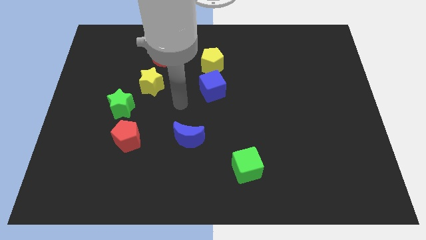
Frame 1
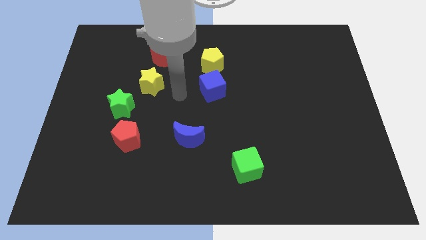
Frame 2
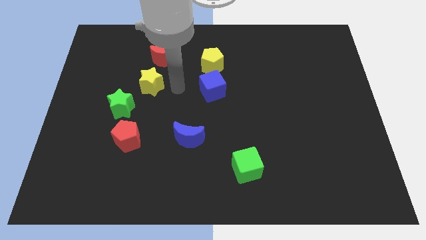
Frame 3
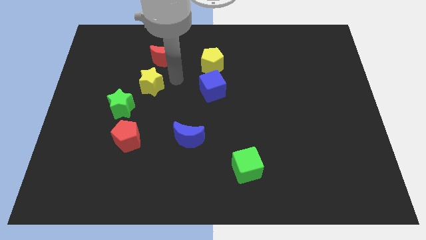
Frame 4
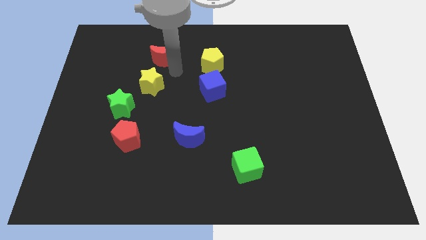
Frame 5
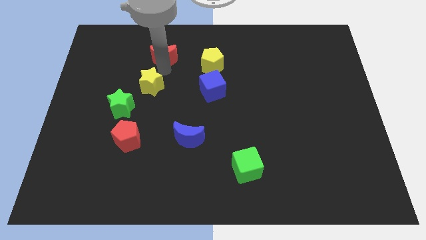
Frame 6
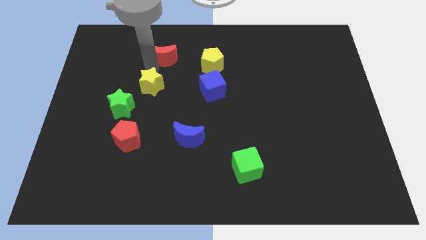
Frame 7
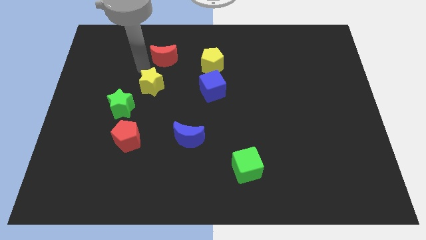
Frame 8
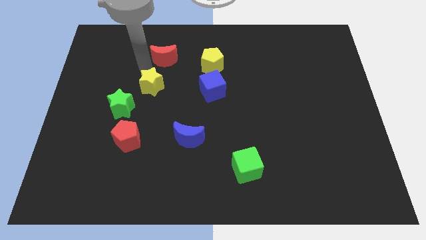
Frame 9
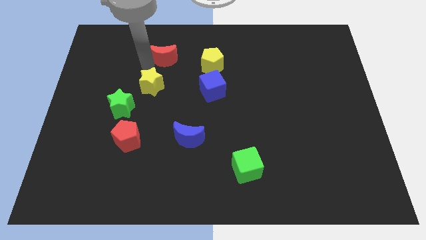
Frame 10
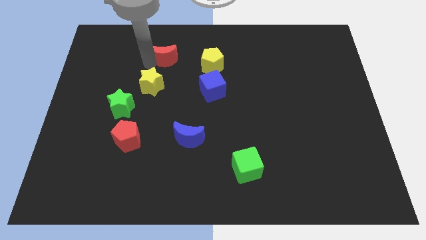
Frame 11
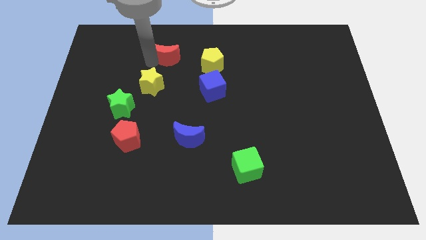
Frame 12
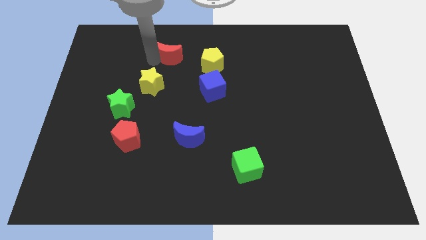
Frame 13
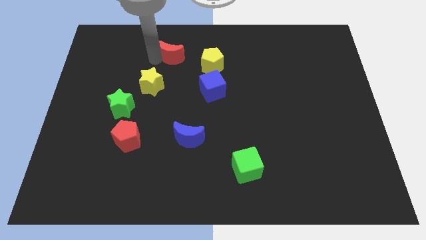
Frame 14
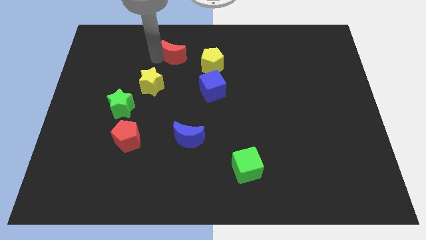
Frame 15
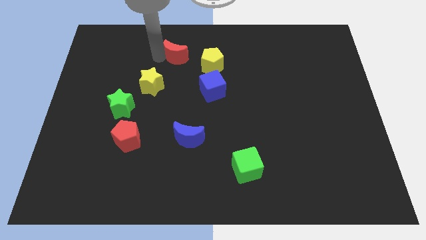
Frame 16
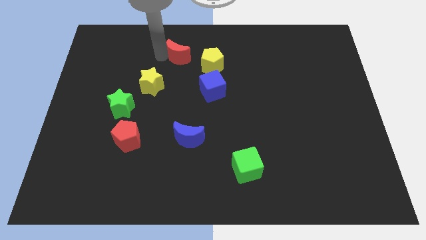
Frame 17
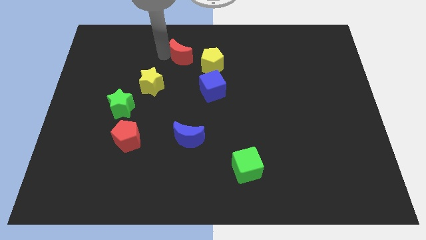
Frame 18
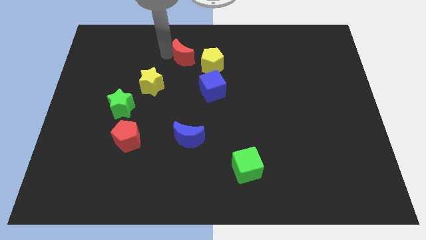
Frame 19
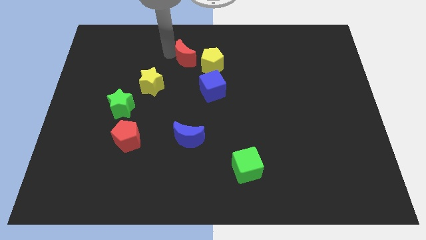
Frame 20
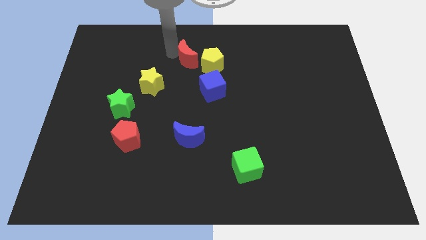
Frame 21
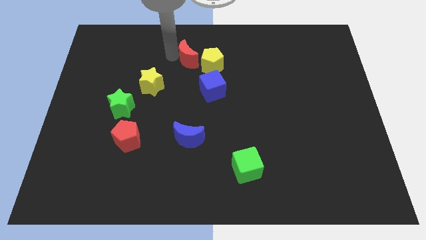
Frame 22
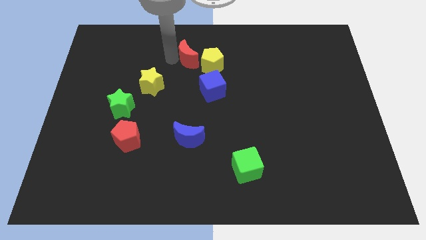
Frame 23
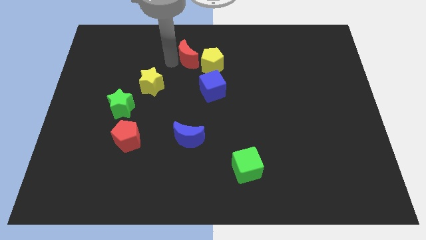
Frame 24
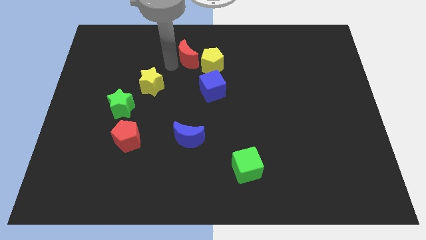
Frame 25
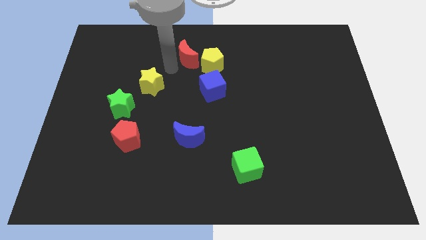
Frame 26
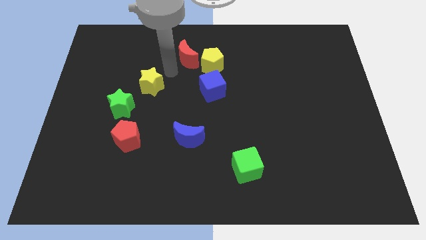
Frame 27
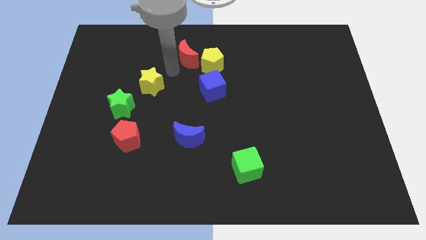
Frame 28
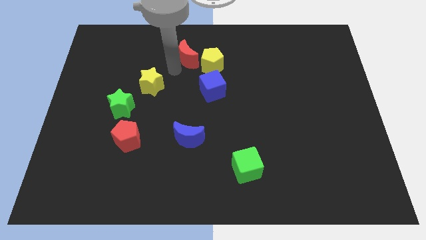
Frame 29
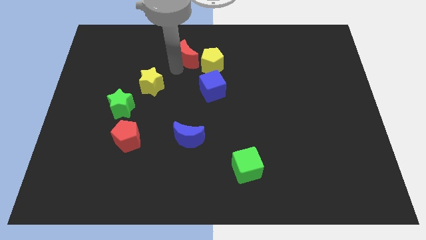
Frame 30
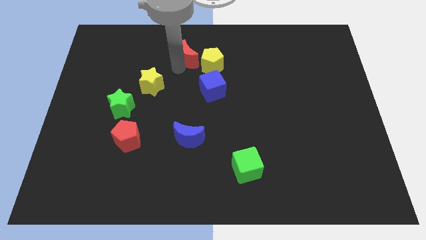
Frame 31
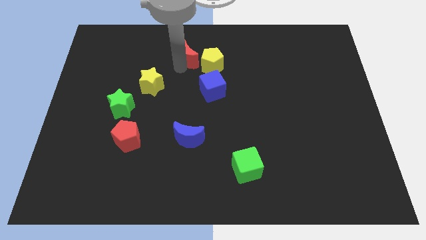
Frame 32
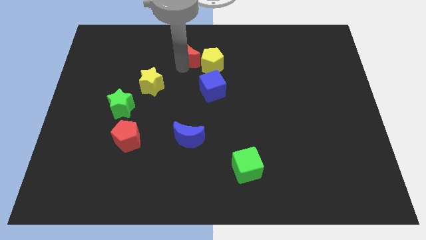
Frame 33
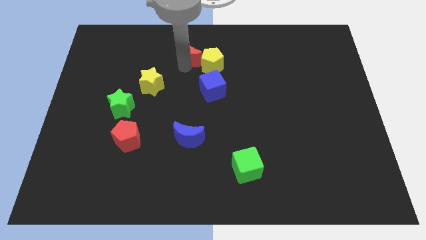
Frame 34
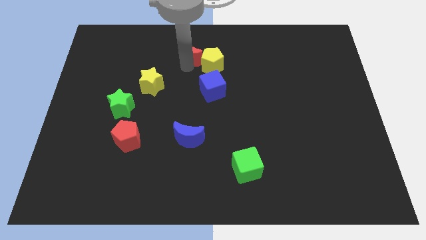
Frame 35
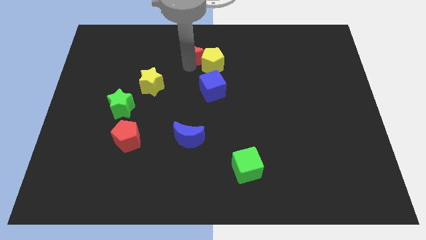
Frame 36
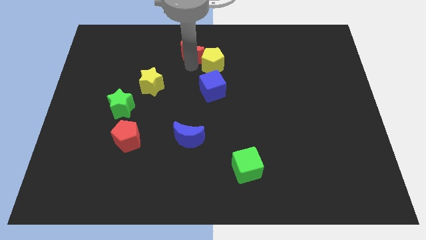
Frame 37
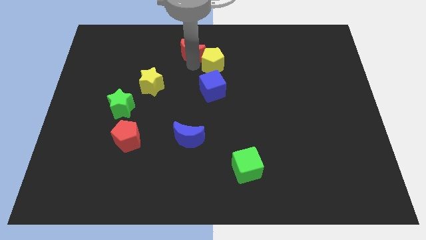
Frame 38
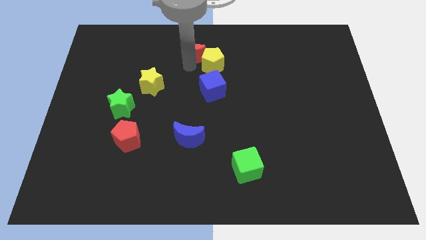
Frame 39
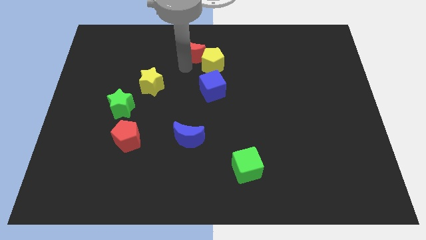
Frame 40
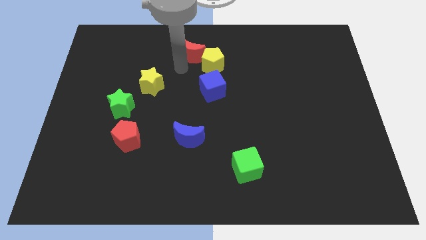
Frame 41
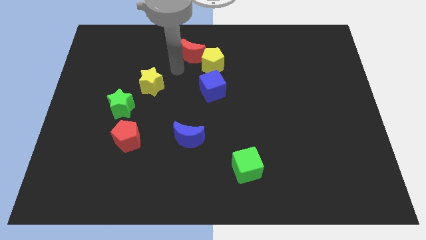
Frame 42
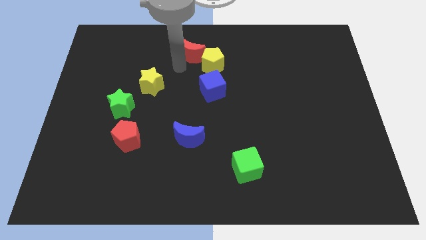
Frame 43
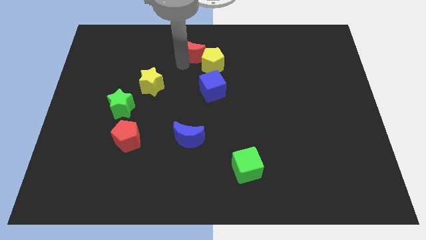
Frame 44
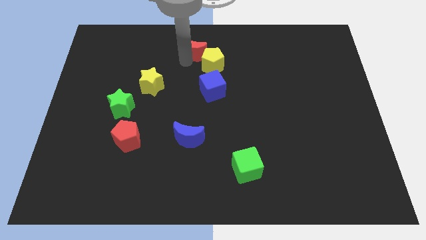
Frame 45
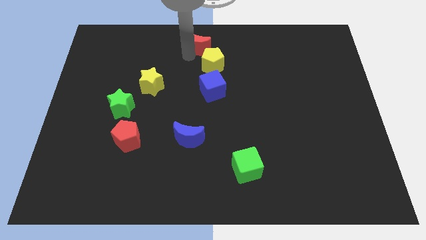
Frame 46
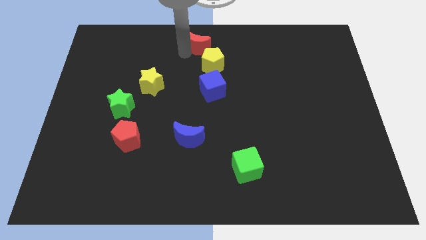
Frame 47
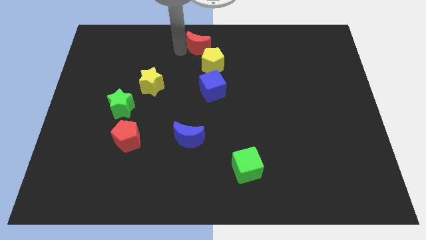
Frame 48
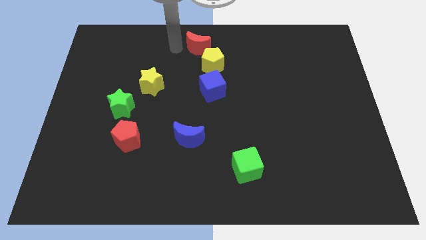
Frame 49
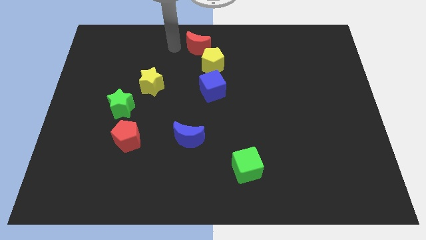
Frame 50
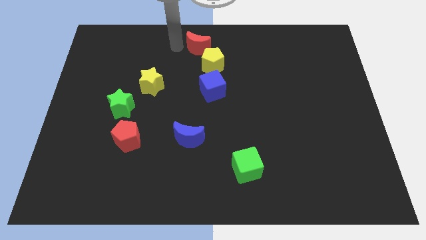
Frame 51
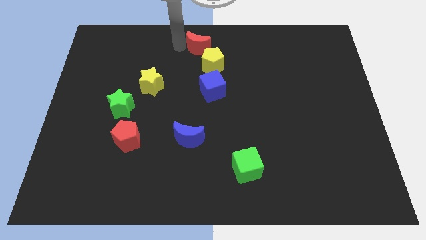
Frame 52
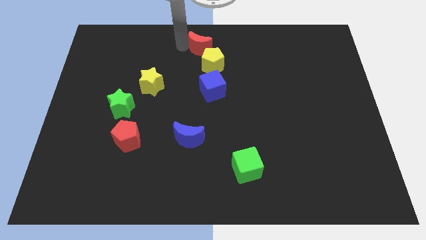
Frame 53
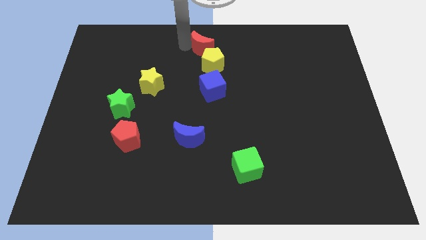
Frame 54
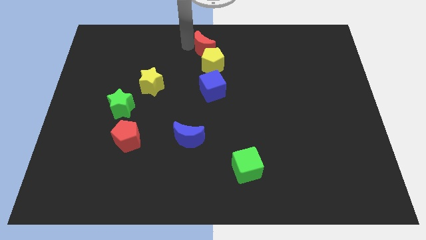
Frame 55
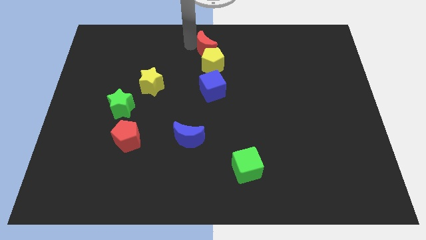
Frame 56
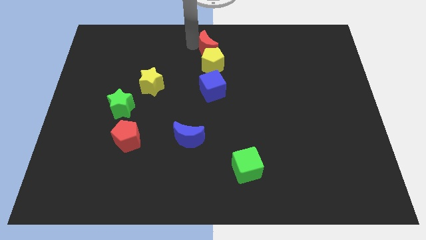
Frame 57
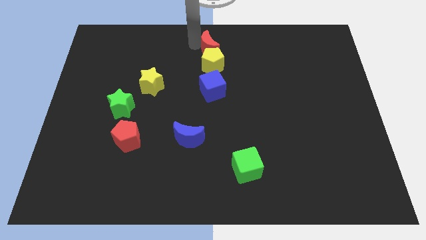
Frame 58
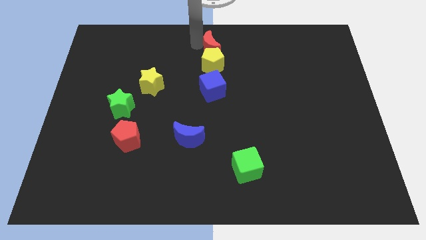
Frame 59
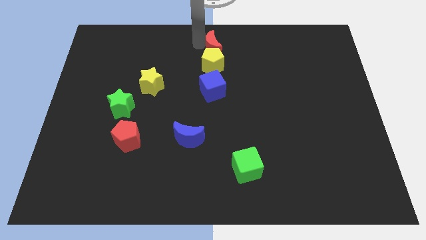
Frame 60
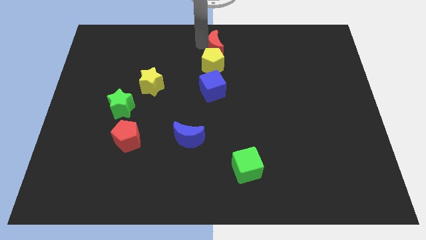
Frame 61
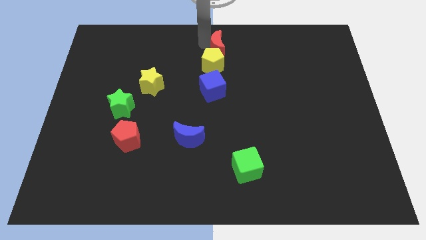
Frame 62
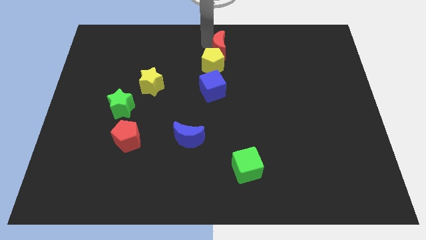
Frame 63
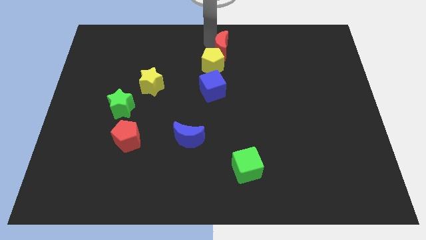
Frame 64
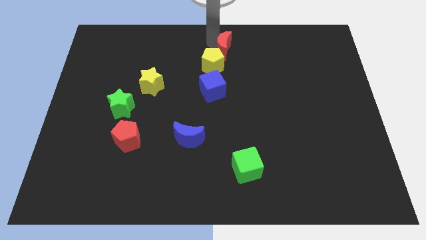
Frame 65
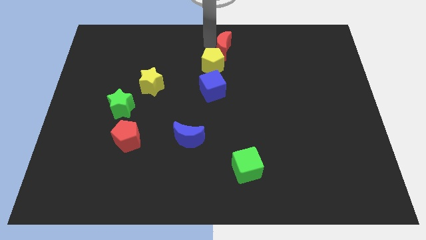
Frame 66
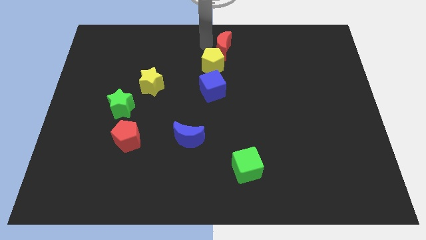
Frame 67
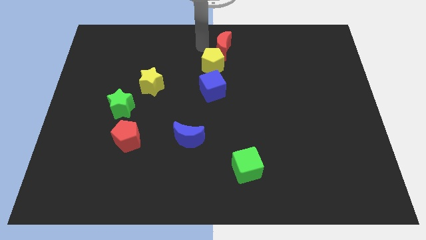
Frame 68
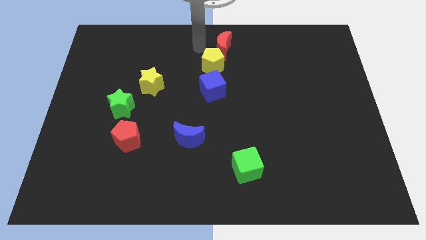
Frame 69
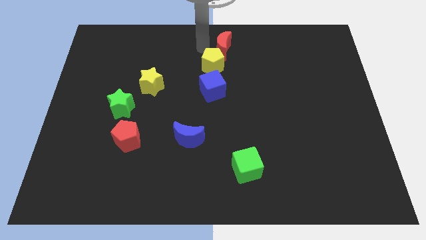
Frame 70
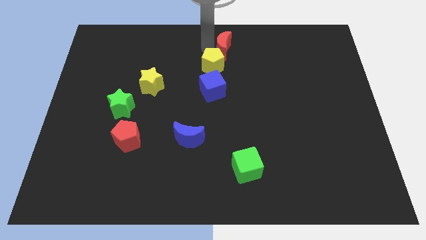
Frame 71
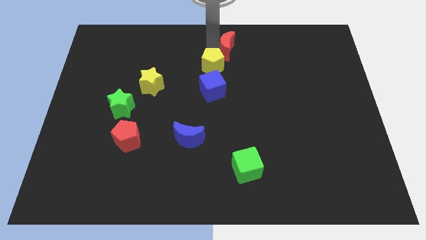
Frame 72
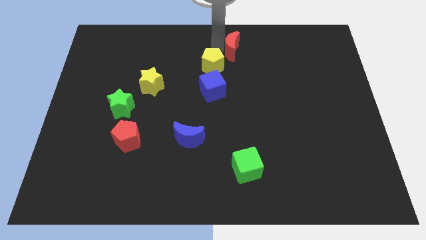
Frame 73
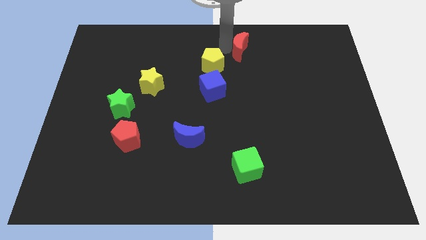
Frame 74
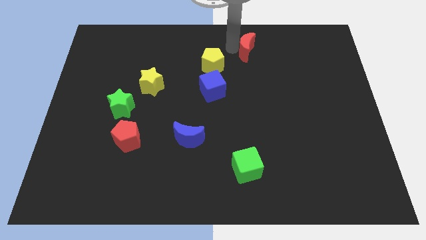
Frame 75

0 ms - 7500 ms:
slide the red moon right

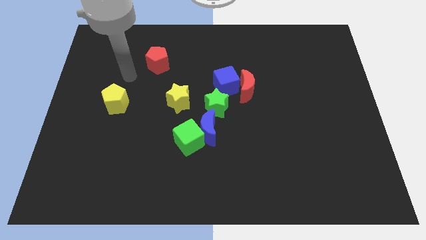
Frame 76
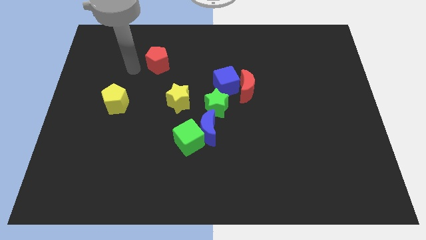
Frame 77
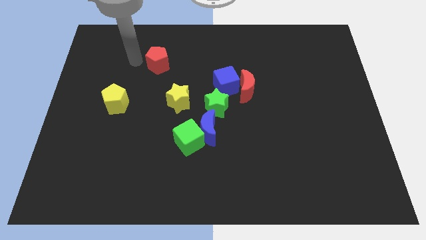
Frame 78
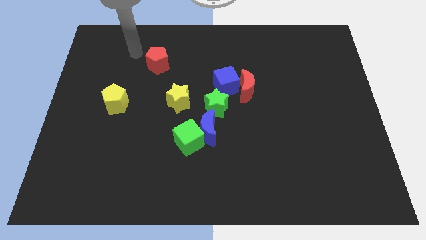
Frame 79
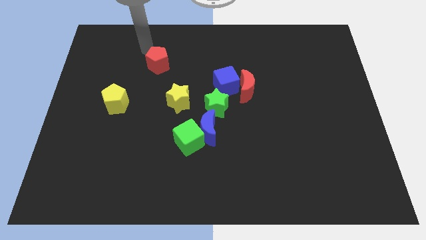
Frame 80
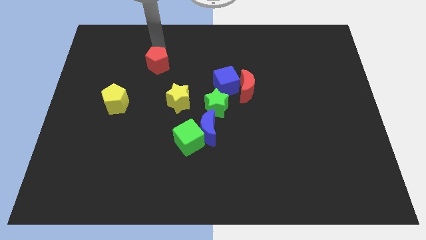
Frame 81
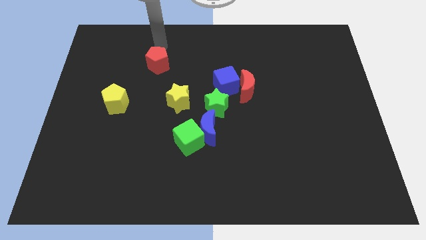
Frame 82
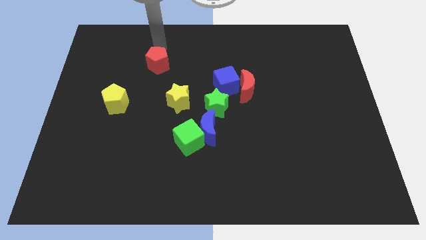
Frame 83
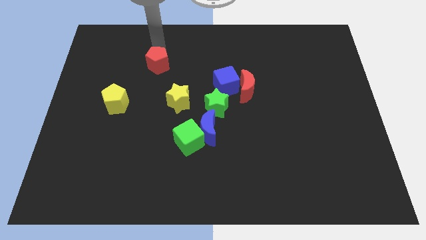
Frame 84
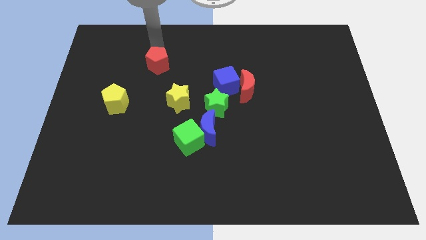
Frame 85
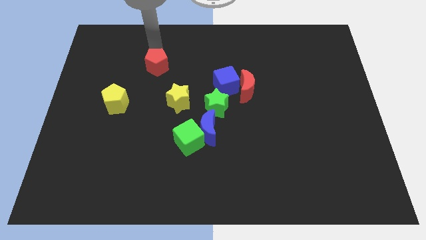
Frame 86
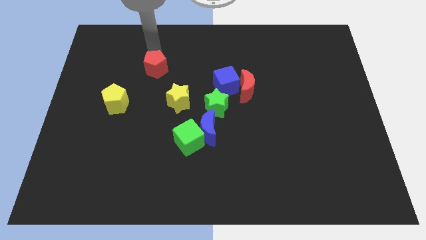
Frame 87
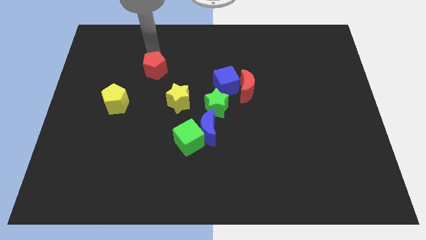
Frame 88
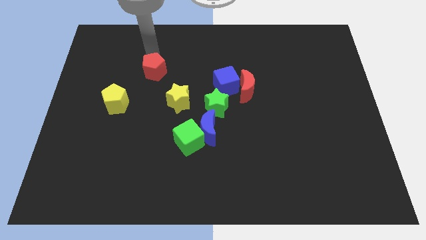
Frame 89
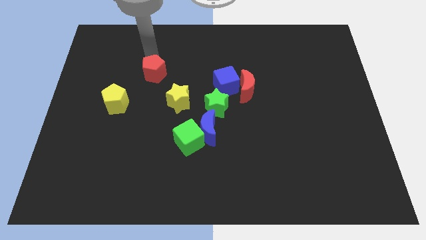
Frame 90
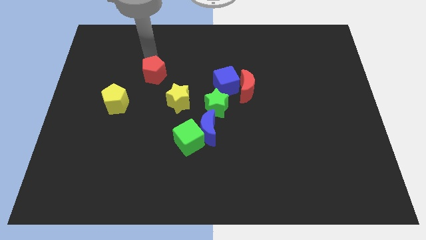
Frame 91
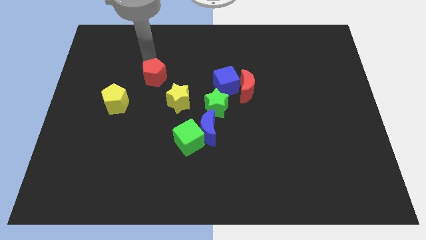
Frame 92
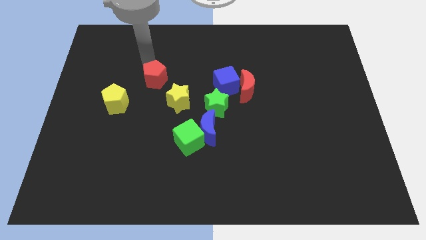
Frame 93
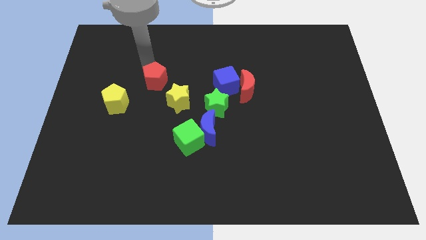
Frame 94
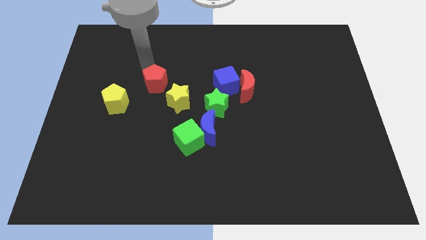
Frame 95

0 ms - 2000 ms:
slightly slide the red pentagon downwards
